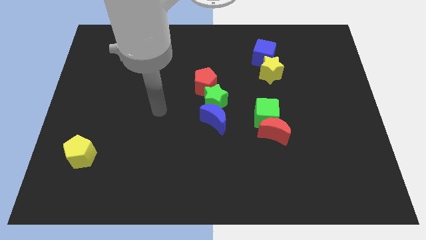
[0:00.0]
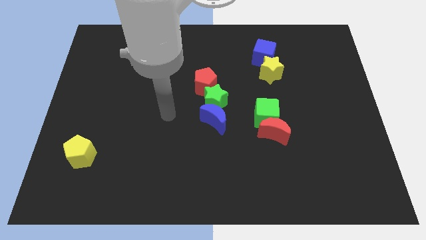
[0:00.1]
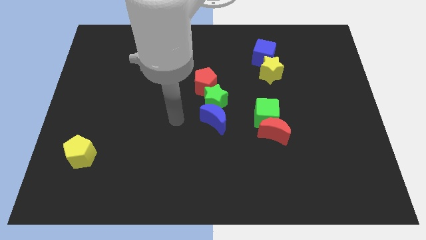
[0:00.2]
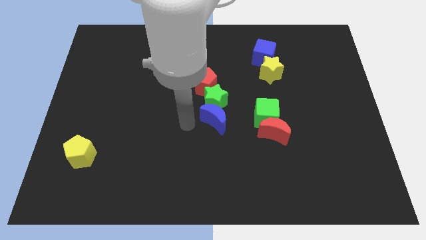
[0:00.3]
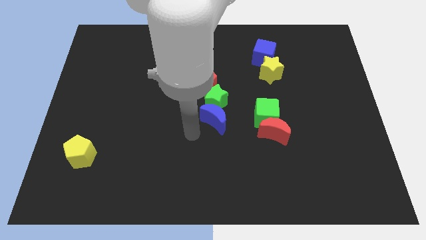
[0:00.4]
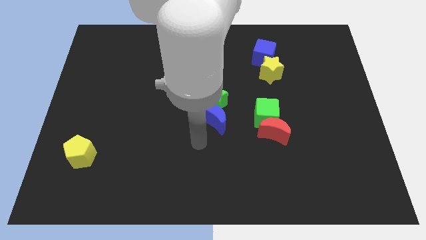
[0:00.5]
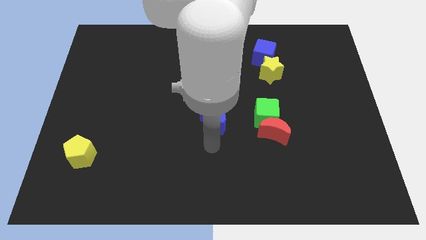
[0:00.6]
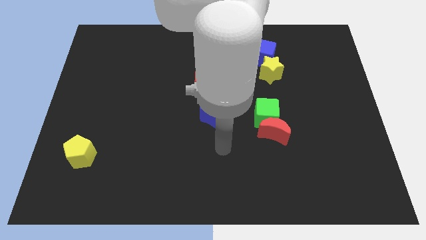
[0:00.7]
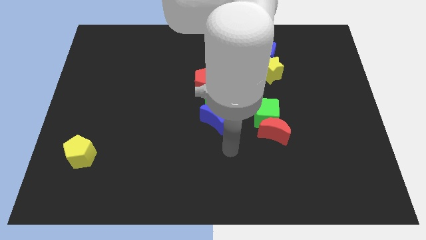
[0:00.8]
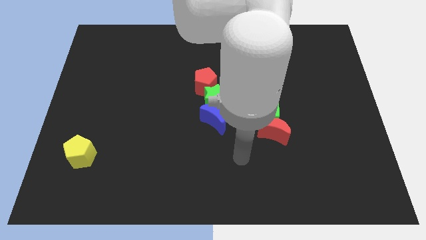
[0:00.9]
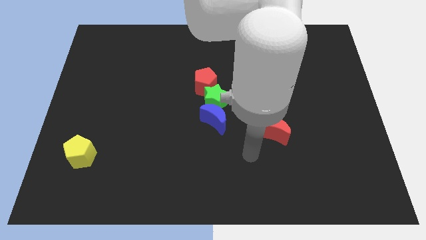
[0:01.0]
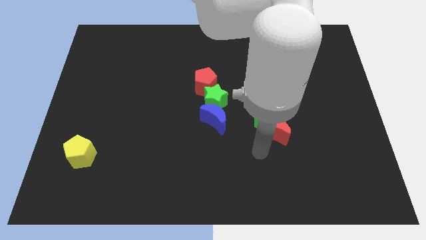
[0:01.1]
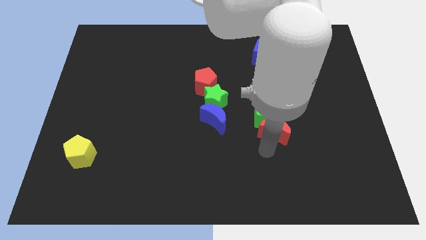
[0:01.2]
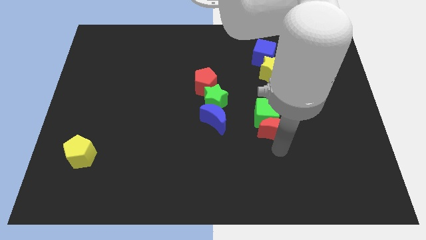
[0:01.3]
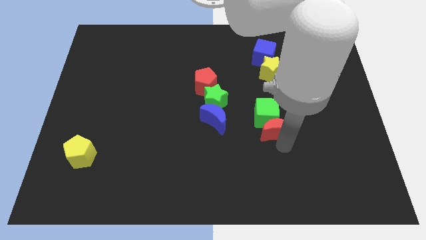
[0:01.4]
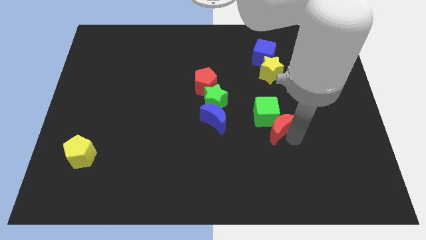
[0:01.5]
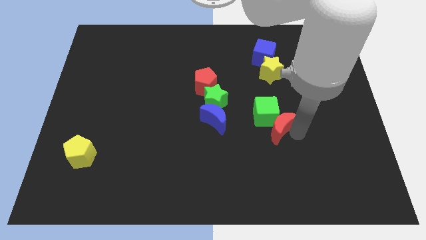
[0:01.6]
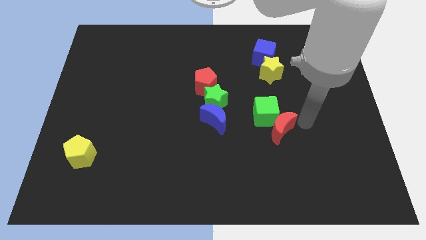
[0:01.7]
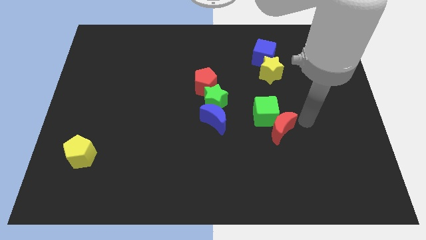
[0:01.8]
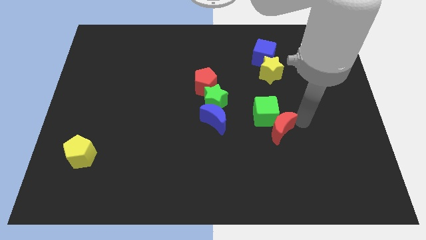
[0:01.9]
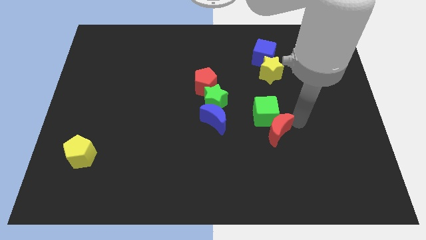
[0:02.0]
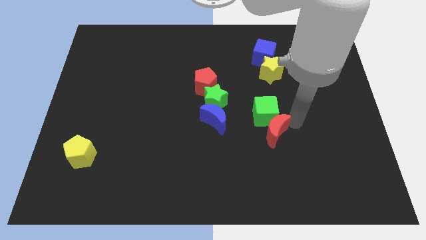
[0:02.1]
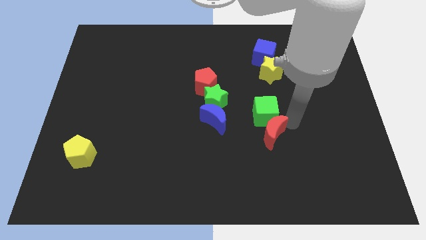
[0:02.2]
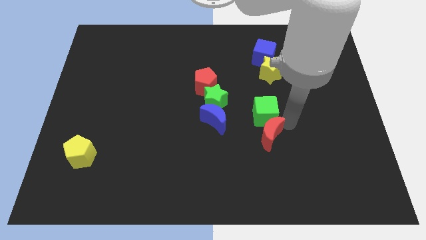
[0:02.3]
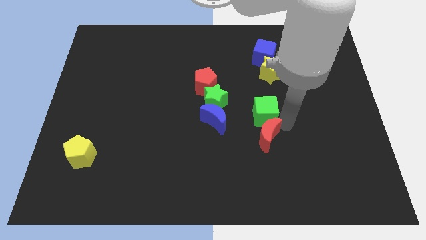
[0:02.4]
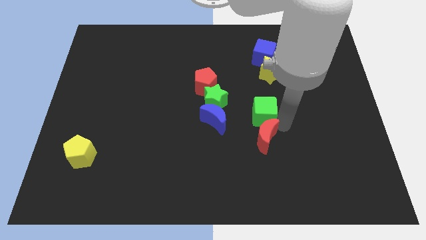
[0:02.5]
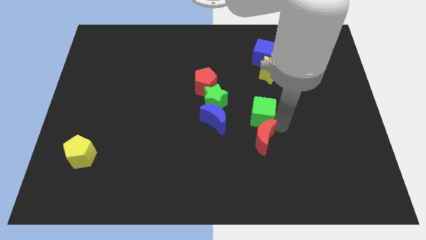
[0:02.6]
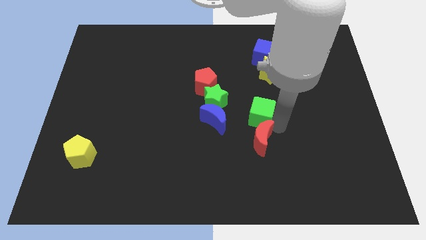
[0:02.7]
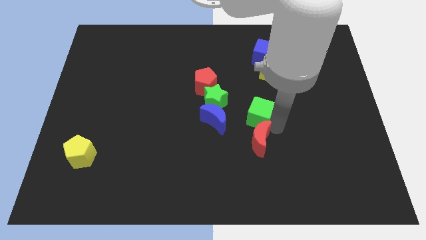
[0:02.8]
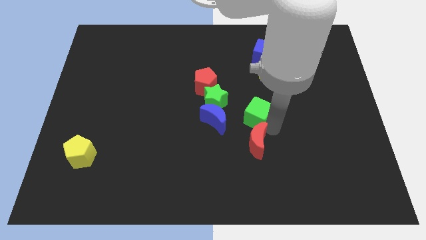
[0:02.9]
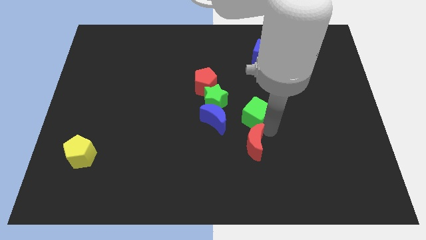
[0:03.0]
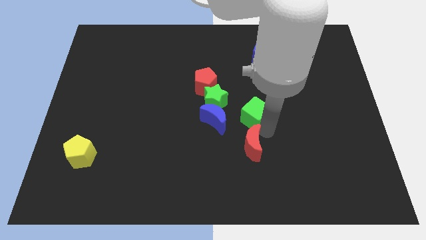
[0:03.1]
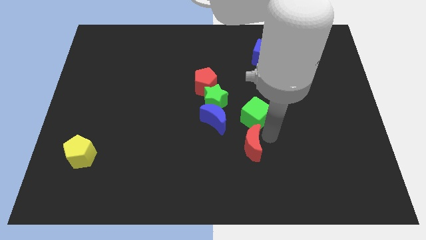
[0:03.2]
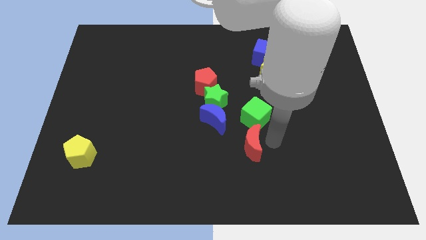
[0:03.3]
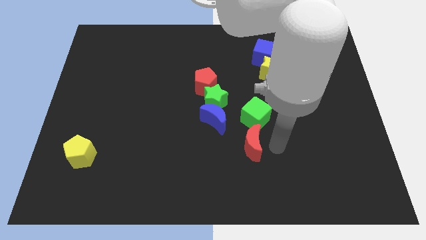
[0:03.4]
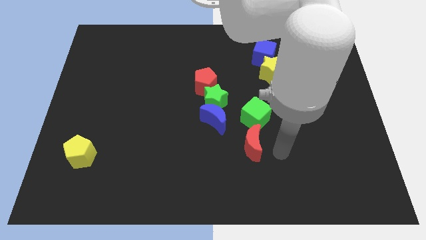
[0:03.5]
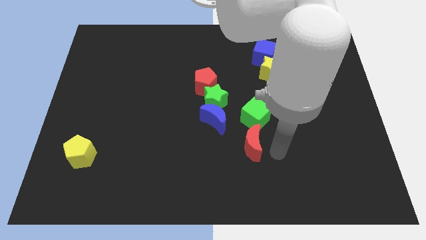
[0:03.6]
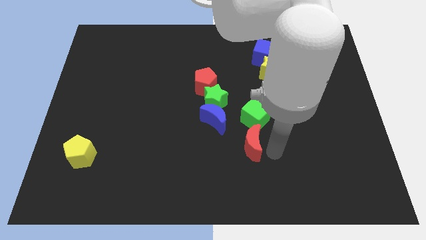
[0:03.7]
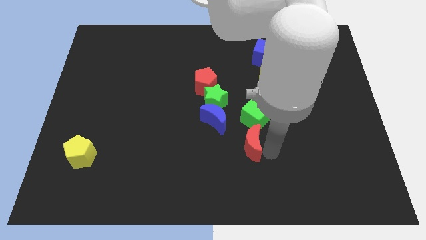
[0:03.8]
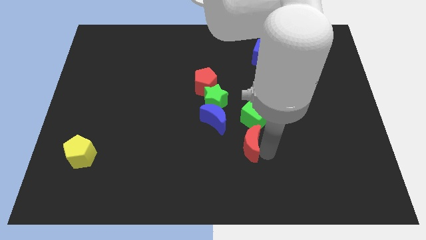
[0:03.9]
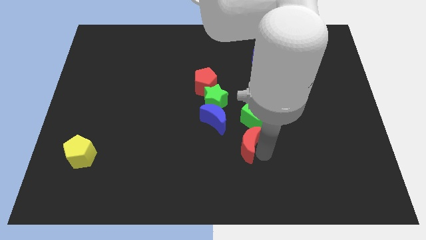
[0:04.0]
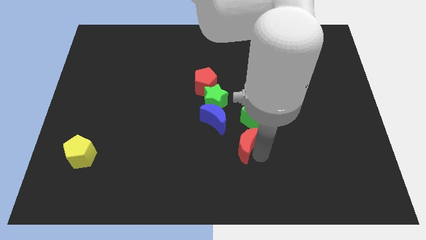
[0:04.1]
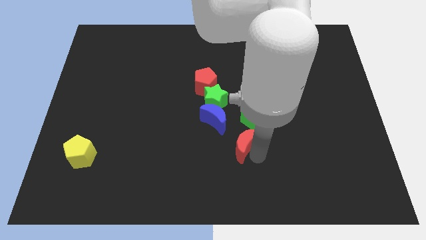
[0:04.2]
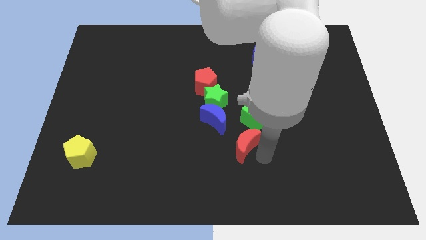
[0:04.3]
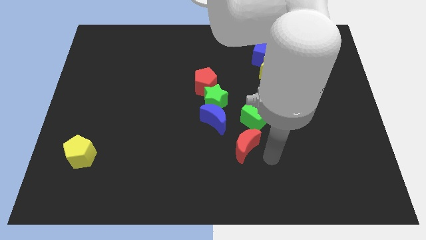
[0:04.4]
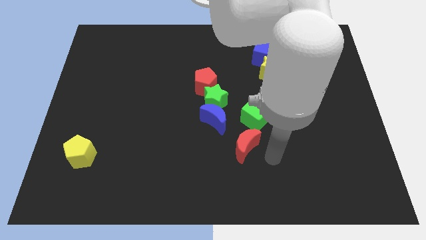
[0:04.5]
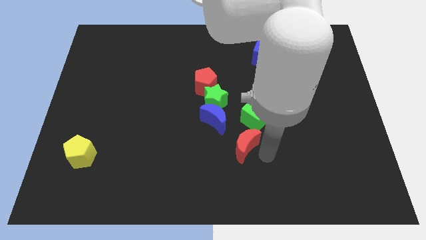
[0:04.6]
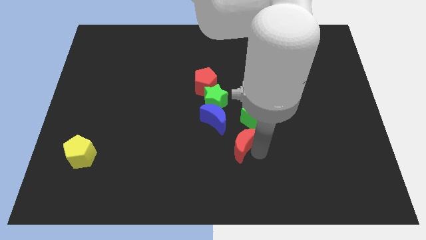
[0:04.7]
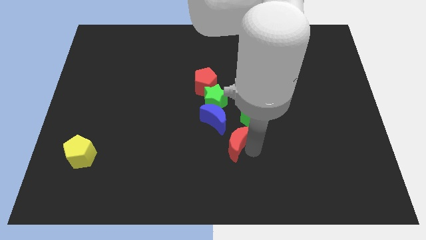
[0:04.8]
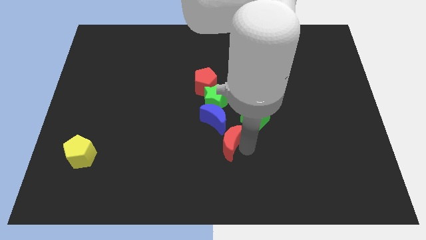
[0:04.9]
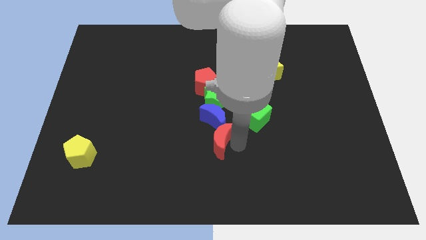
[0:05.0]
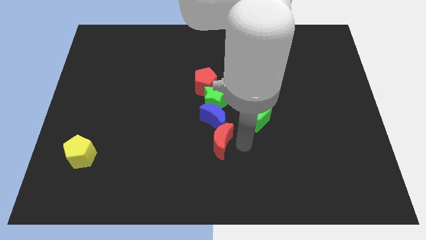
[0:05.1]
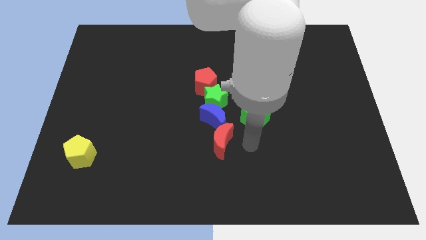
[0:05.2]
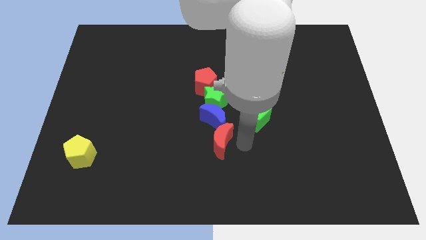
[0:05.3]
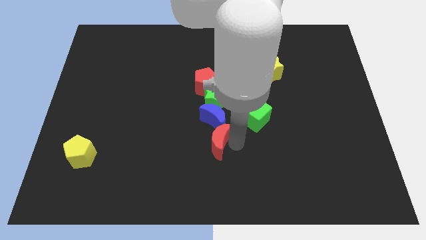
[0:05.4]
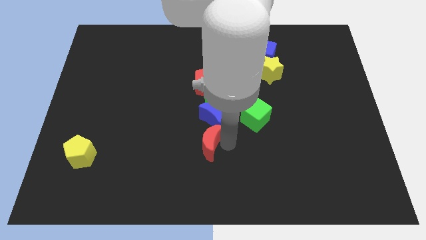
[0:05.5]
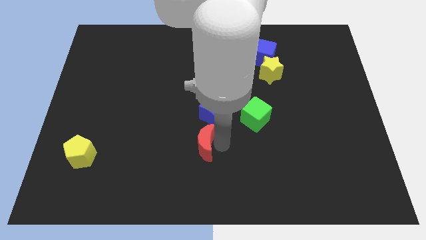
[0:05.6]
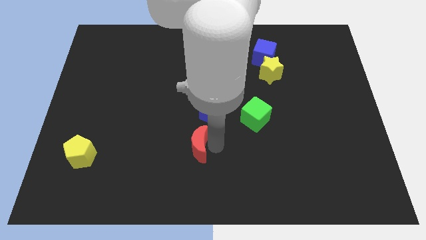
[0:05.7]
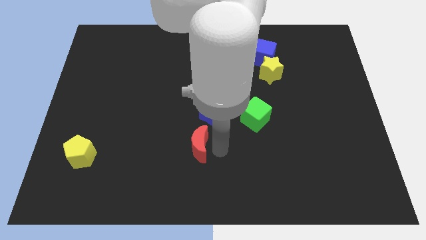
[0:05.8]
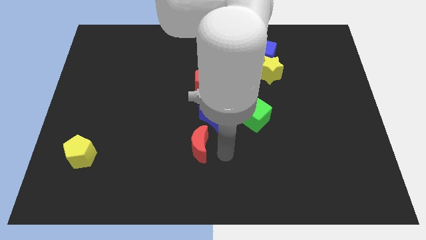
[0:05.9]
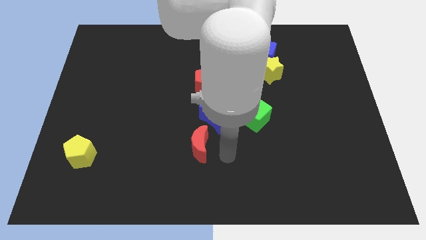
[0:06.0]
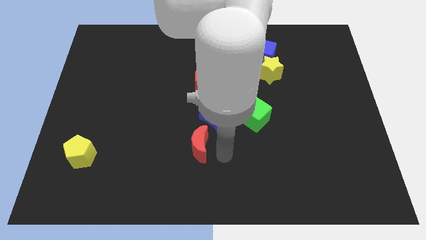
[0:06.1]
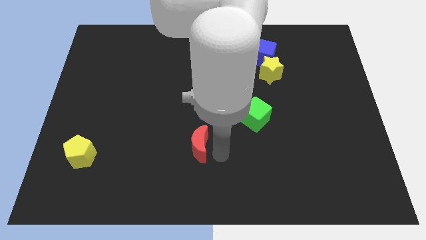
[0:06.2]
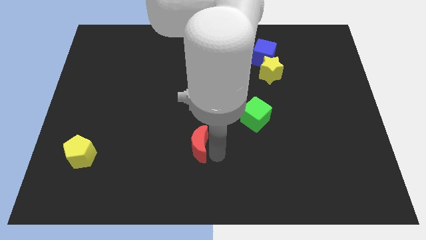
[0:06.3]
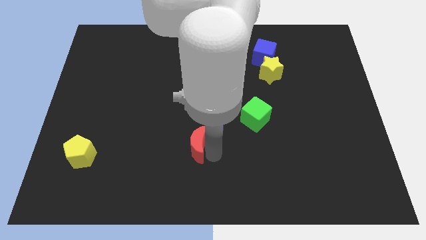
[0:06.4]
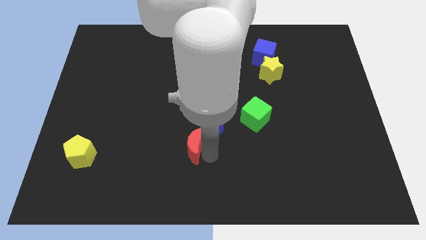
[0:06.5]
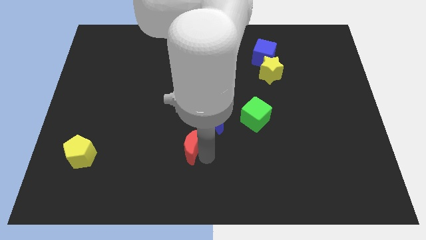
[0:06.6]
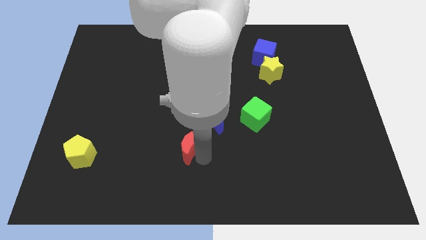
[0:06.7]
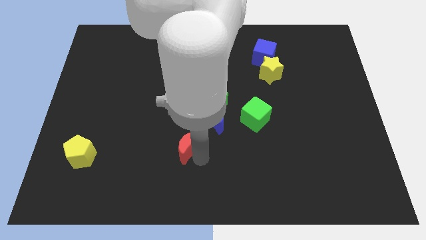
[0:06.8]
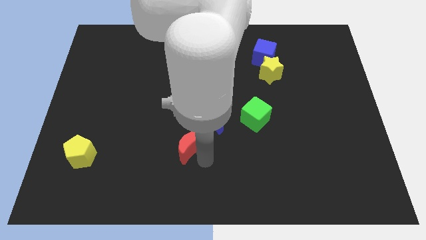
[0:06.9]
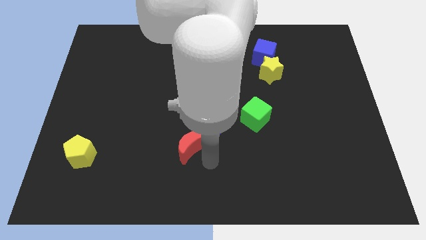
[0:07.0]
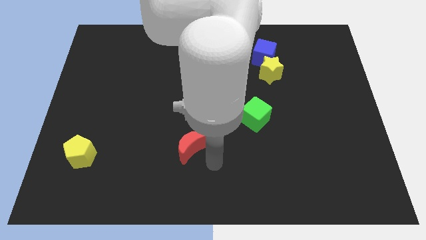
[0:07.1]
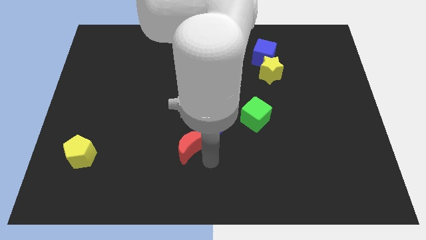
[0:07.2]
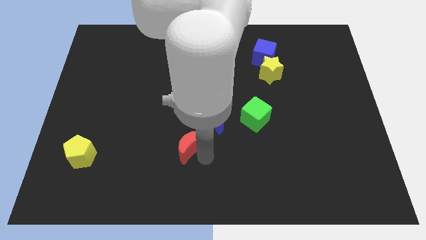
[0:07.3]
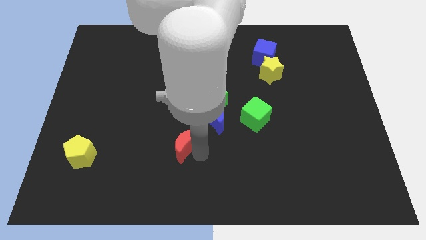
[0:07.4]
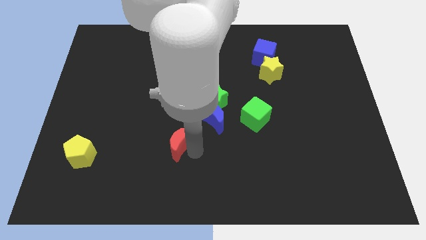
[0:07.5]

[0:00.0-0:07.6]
slide the red moon to the left

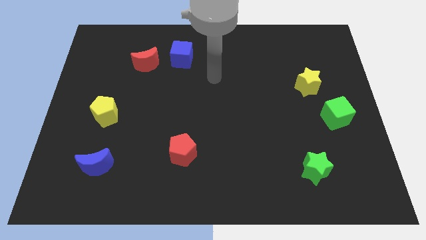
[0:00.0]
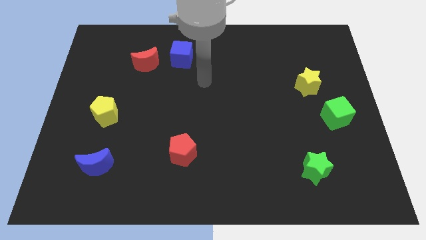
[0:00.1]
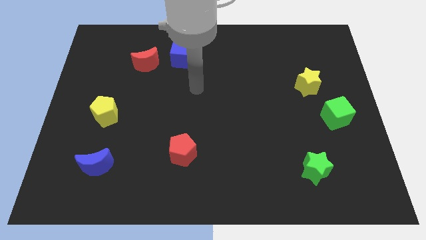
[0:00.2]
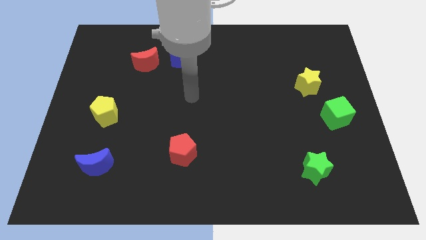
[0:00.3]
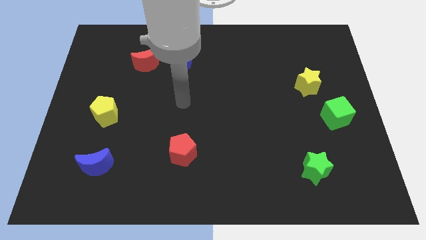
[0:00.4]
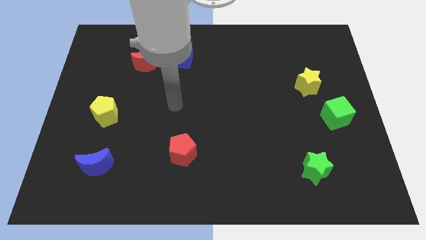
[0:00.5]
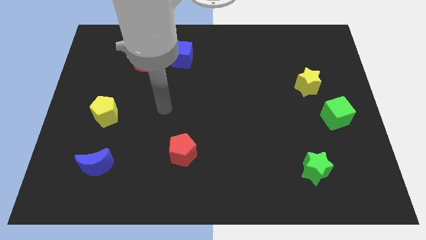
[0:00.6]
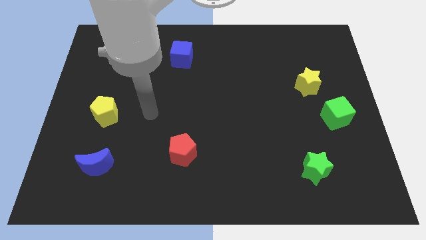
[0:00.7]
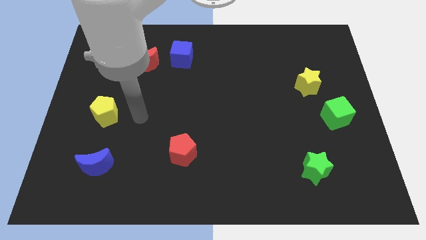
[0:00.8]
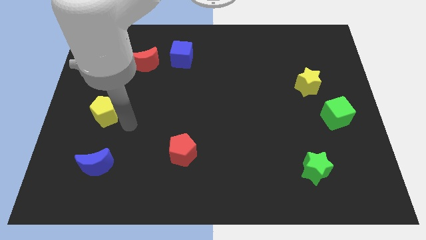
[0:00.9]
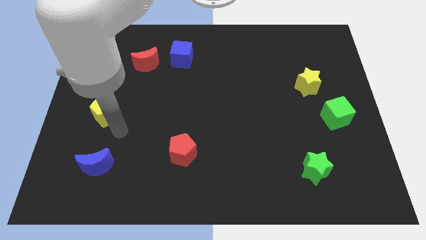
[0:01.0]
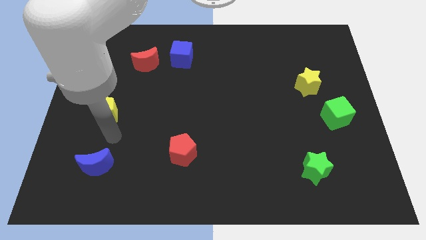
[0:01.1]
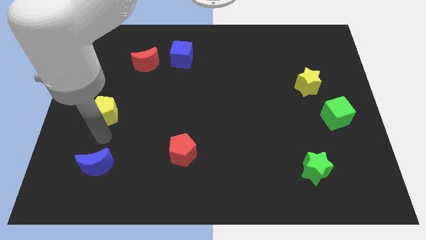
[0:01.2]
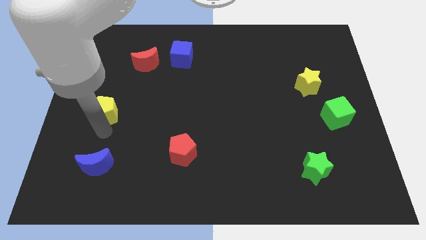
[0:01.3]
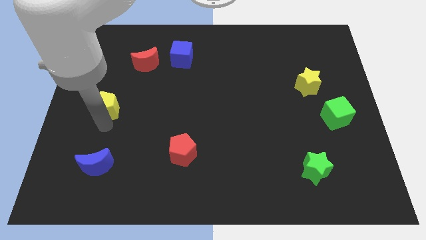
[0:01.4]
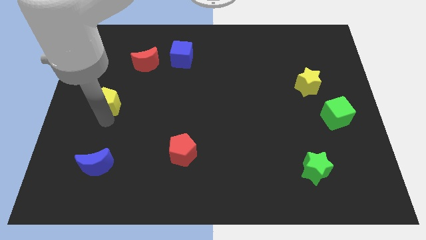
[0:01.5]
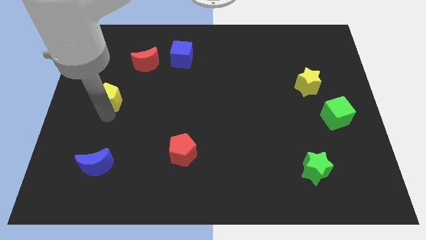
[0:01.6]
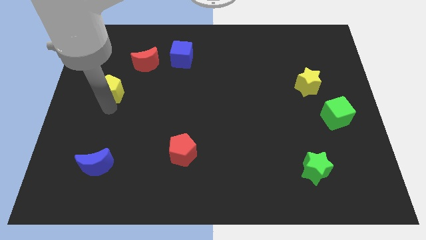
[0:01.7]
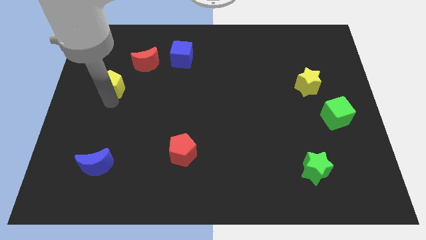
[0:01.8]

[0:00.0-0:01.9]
move the yellow pentagon a little bit up
